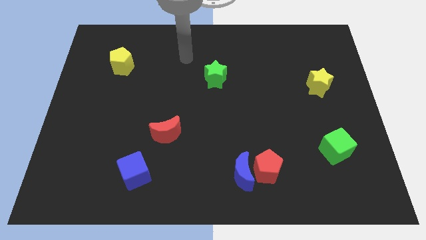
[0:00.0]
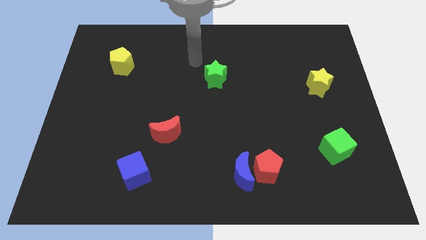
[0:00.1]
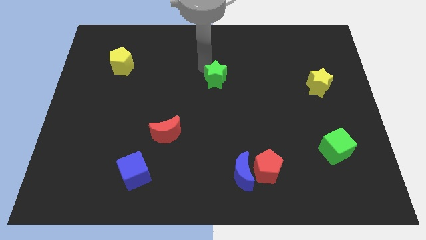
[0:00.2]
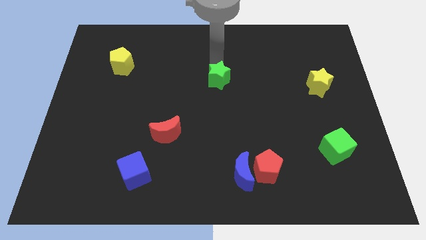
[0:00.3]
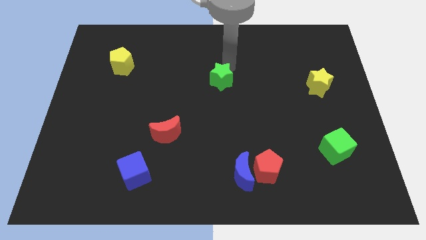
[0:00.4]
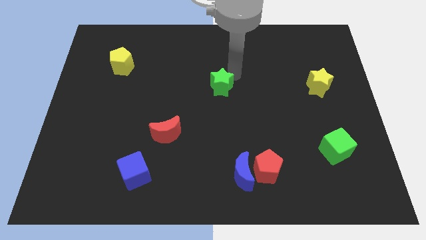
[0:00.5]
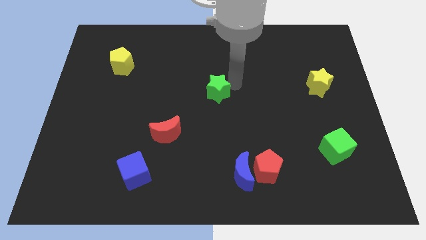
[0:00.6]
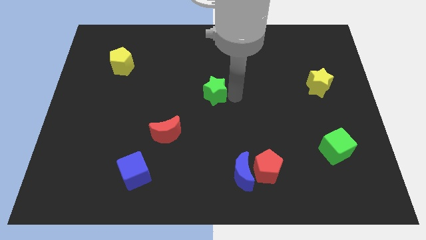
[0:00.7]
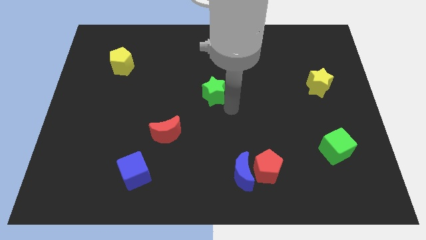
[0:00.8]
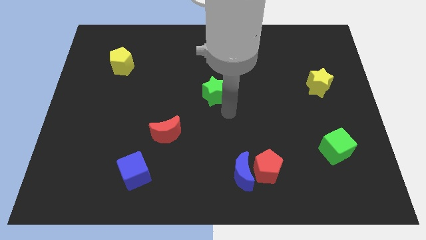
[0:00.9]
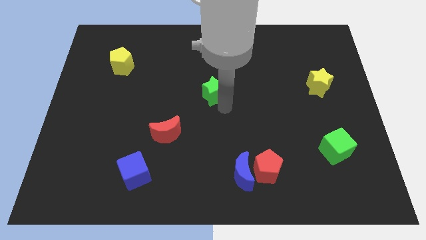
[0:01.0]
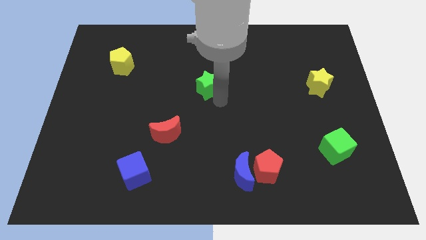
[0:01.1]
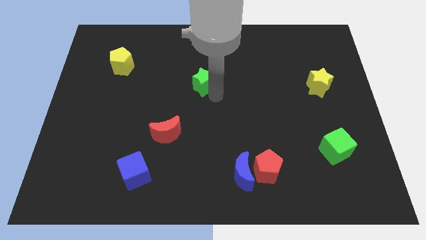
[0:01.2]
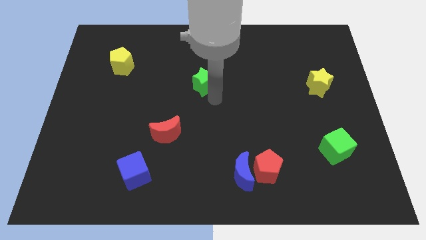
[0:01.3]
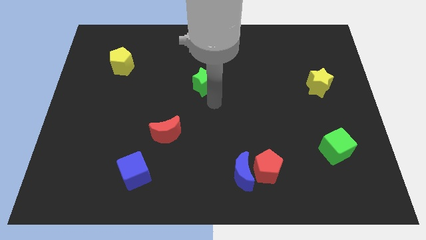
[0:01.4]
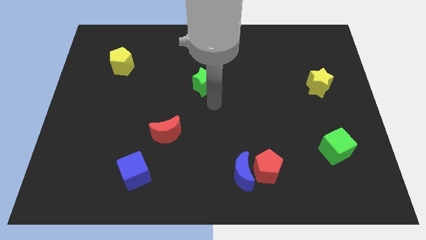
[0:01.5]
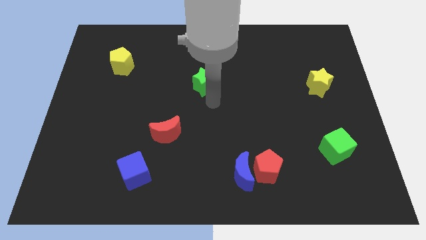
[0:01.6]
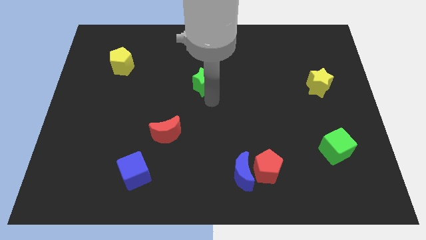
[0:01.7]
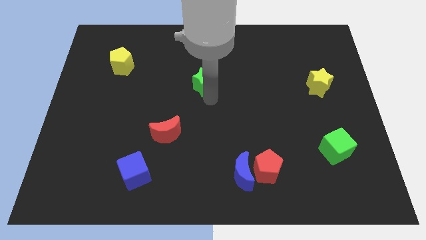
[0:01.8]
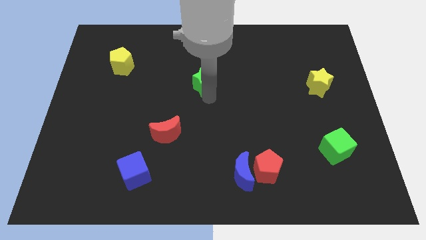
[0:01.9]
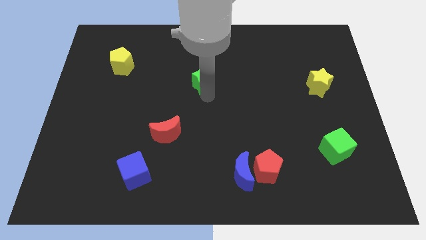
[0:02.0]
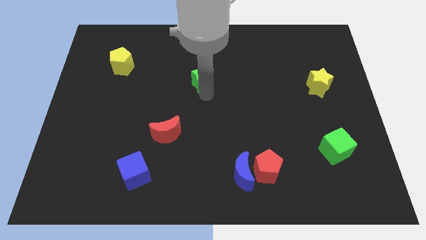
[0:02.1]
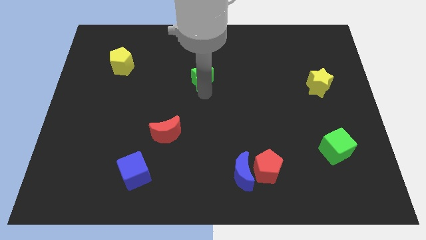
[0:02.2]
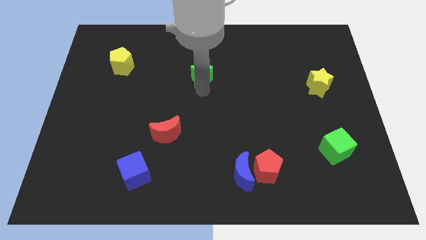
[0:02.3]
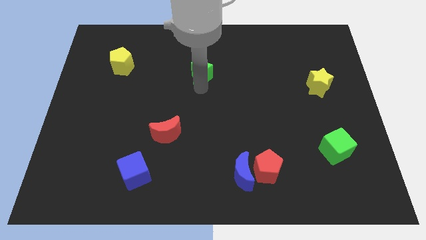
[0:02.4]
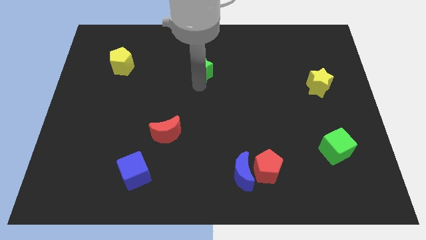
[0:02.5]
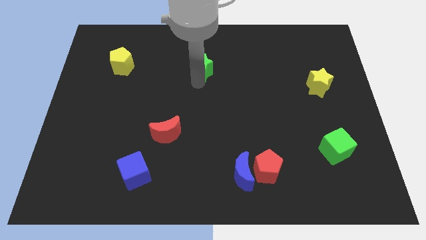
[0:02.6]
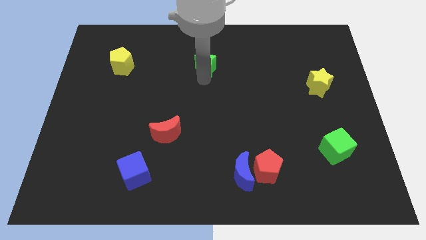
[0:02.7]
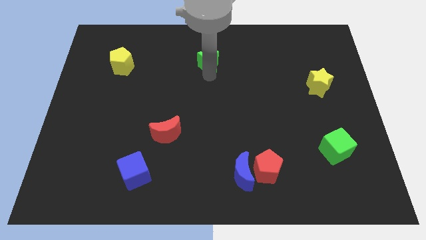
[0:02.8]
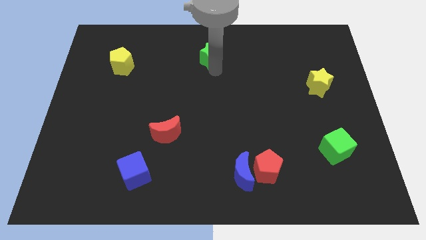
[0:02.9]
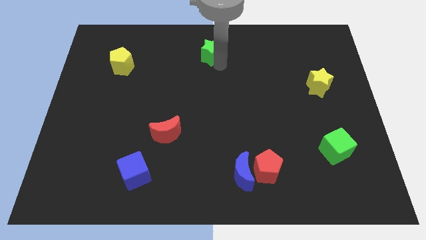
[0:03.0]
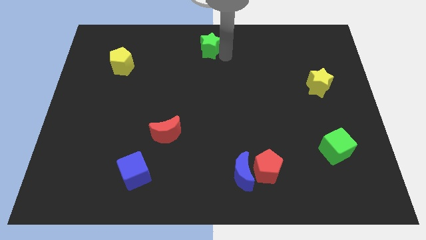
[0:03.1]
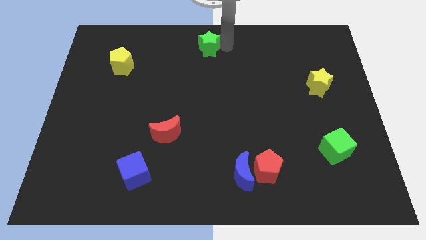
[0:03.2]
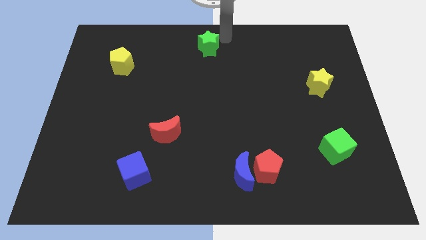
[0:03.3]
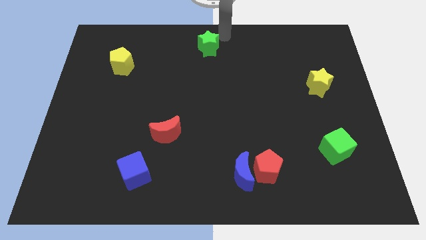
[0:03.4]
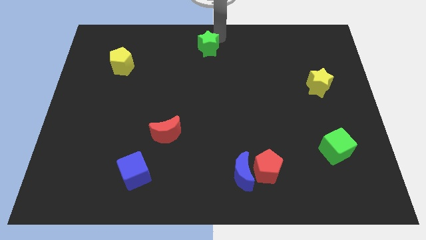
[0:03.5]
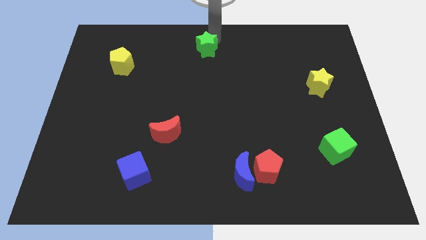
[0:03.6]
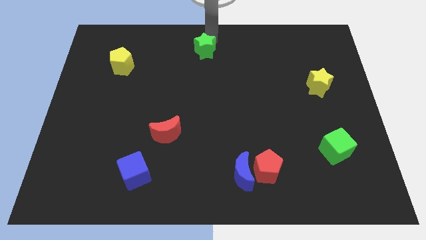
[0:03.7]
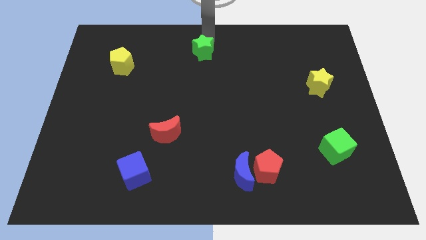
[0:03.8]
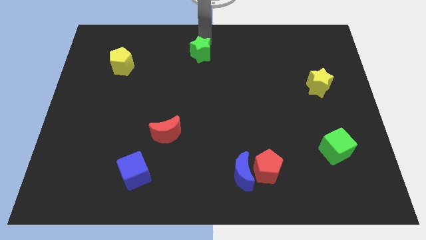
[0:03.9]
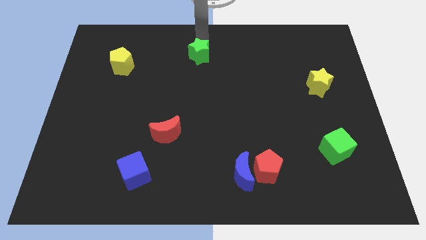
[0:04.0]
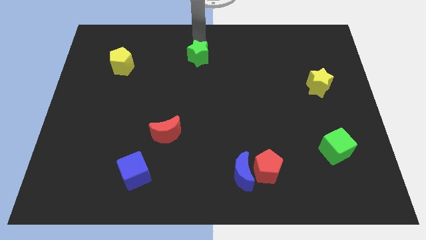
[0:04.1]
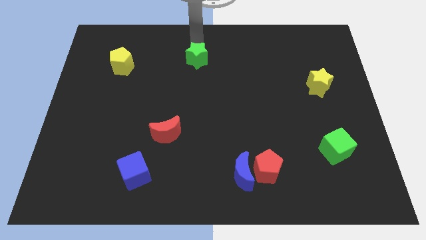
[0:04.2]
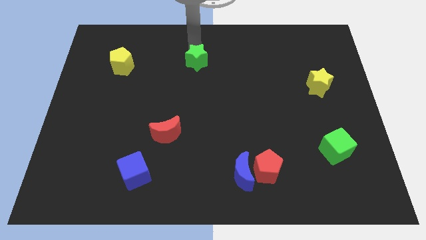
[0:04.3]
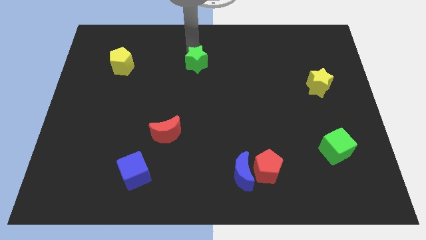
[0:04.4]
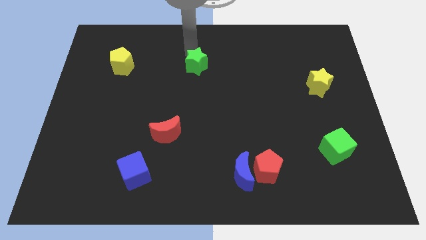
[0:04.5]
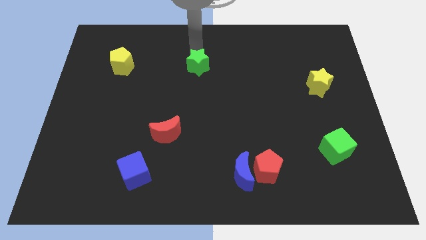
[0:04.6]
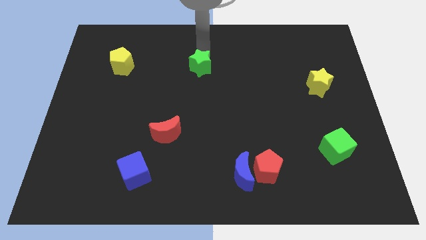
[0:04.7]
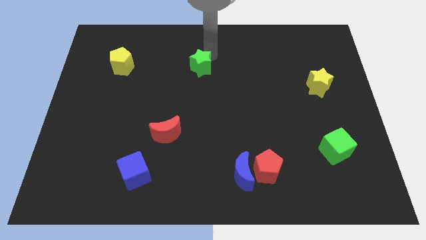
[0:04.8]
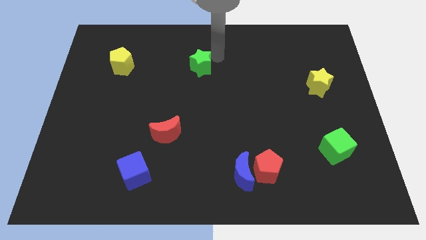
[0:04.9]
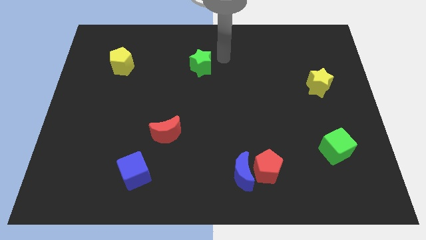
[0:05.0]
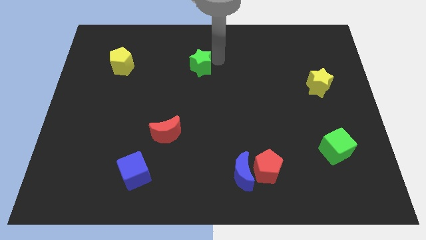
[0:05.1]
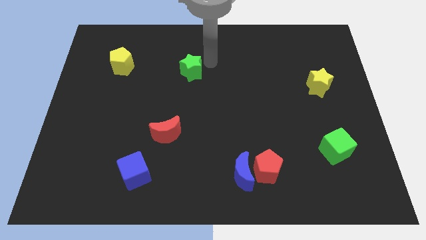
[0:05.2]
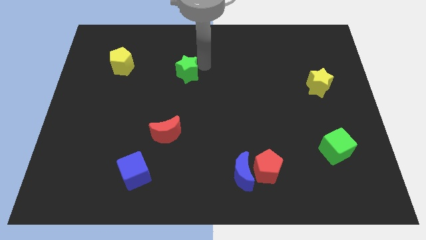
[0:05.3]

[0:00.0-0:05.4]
slightly move the green star to the left

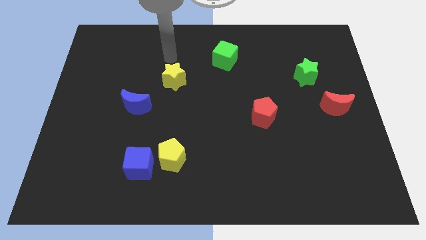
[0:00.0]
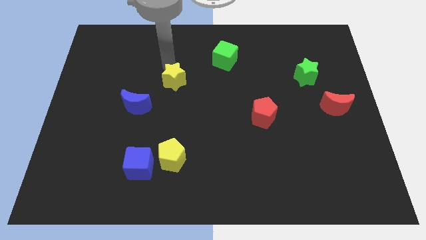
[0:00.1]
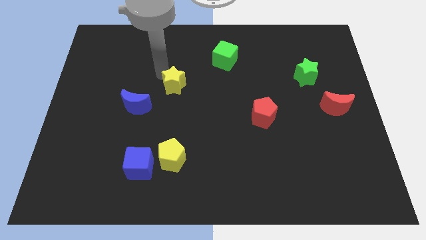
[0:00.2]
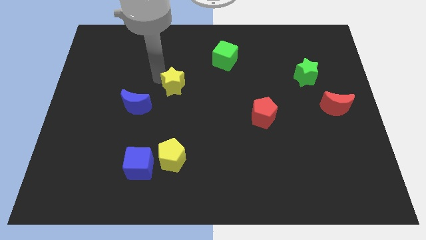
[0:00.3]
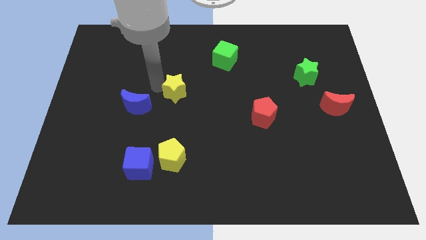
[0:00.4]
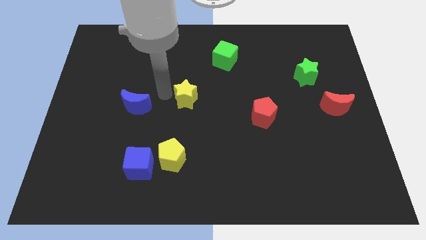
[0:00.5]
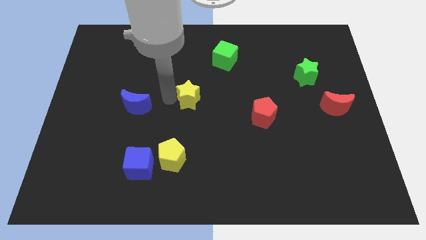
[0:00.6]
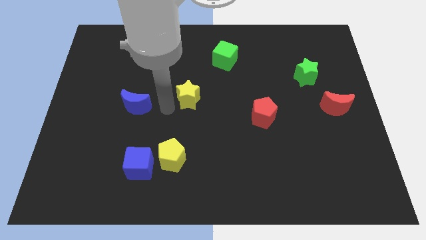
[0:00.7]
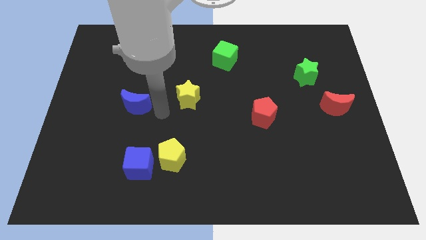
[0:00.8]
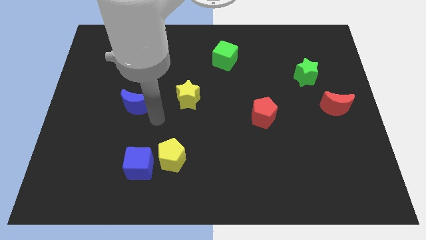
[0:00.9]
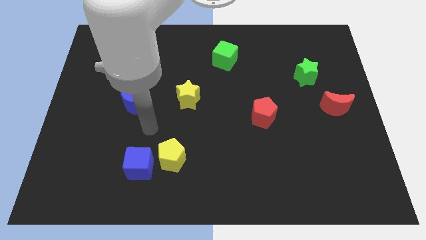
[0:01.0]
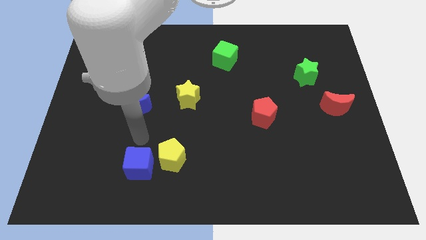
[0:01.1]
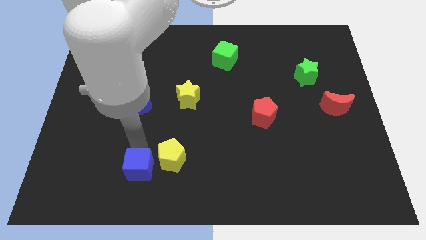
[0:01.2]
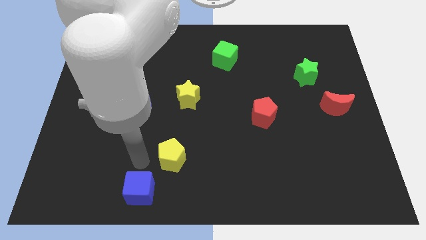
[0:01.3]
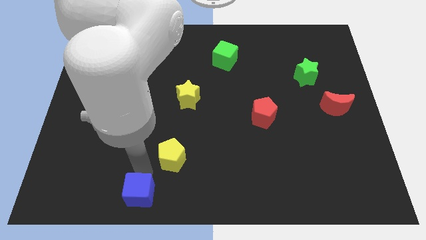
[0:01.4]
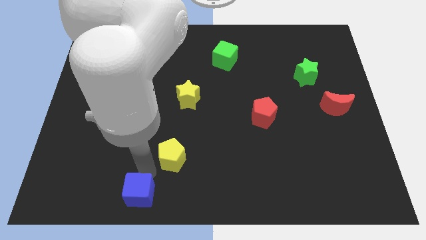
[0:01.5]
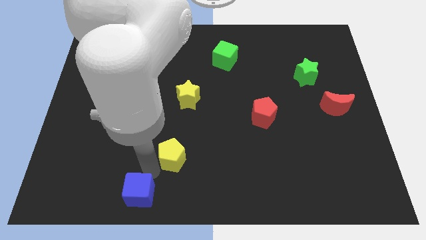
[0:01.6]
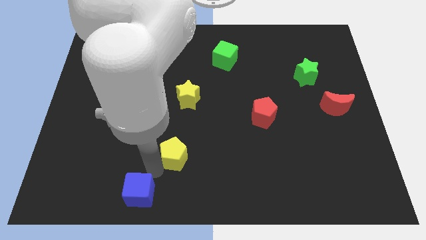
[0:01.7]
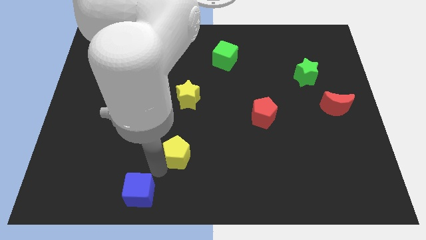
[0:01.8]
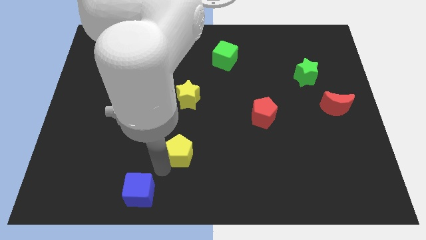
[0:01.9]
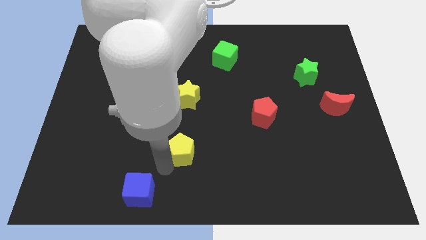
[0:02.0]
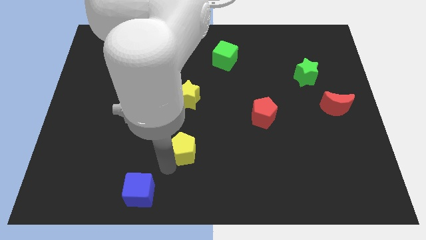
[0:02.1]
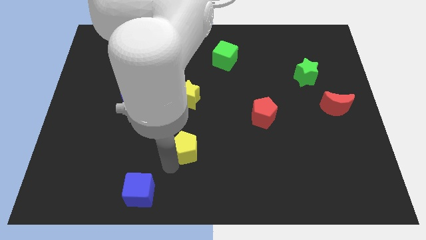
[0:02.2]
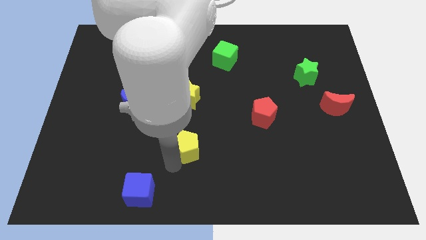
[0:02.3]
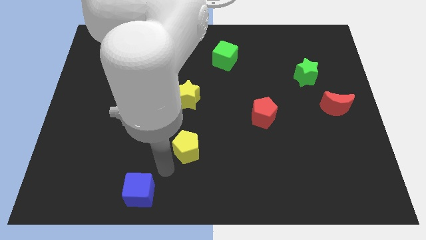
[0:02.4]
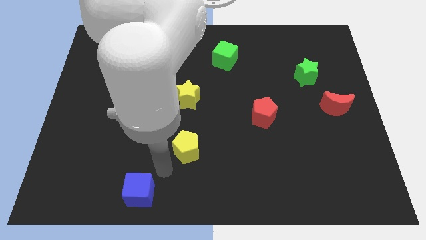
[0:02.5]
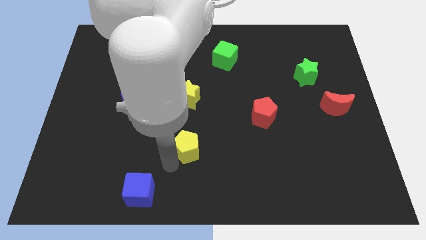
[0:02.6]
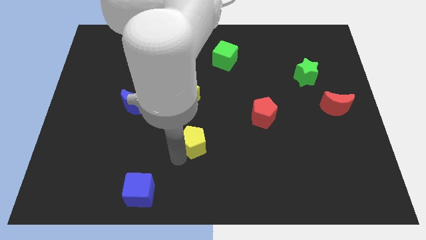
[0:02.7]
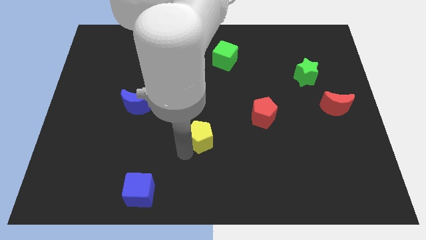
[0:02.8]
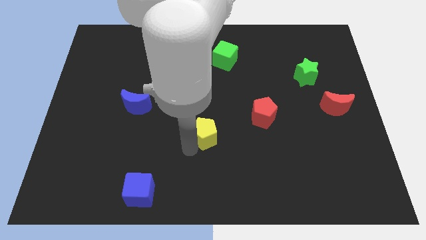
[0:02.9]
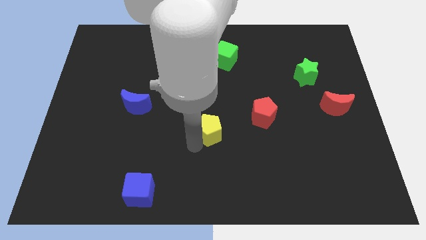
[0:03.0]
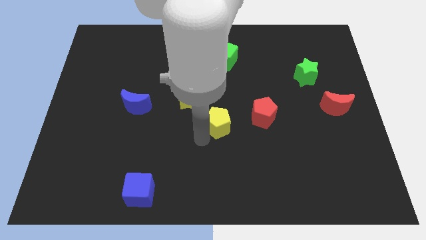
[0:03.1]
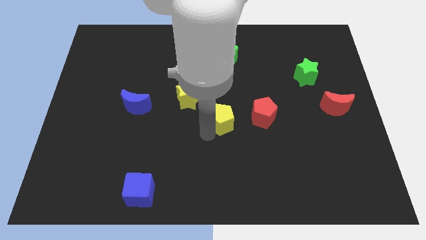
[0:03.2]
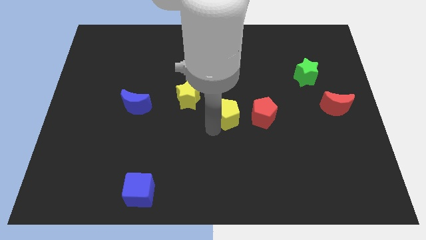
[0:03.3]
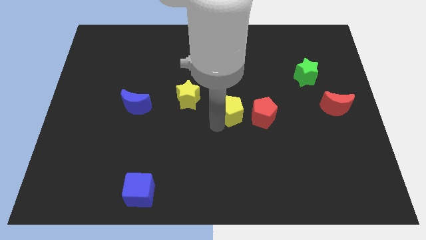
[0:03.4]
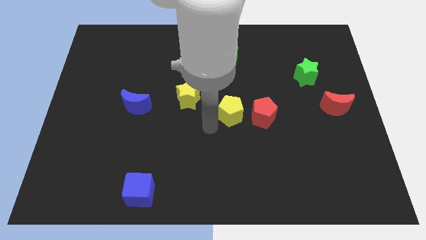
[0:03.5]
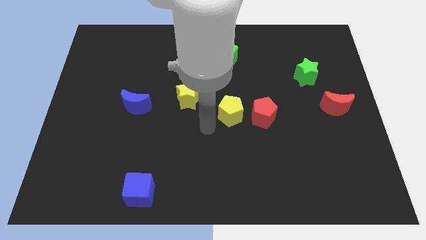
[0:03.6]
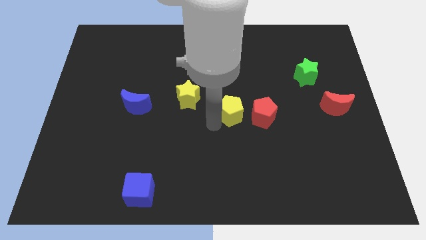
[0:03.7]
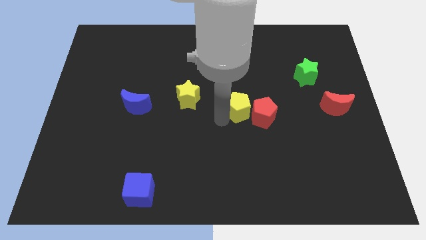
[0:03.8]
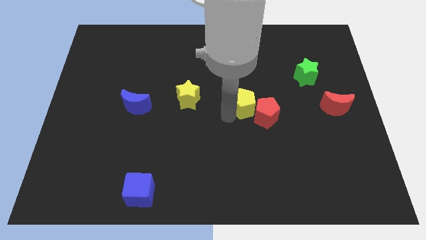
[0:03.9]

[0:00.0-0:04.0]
push the yellow pentagon diagonally up and to the right
